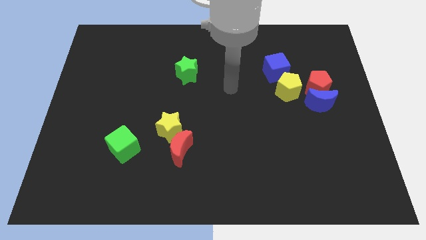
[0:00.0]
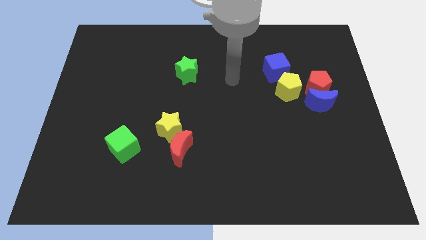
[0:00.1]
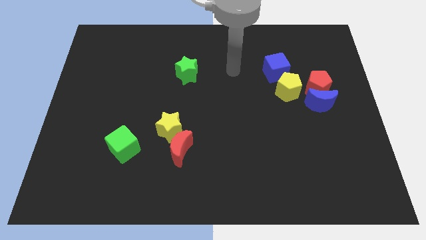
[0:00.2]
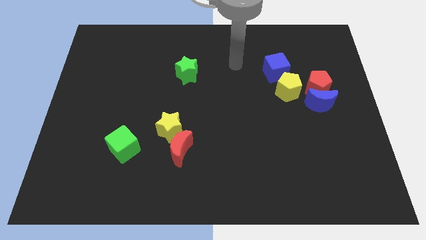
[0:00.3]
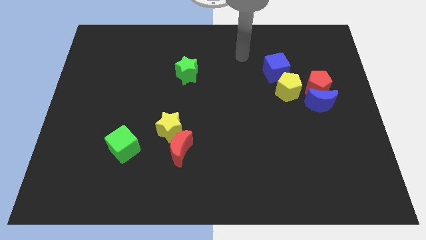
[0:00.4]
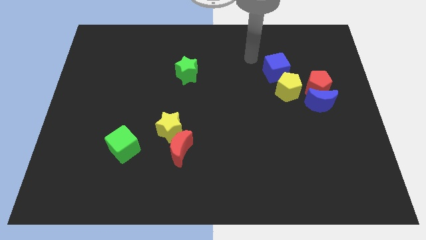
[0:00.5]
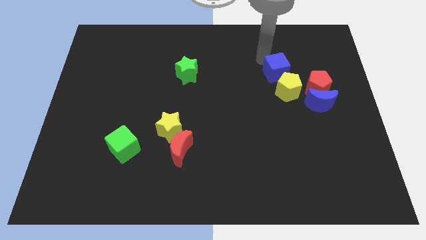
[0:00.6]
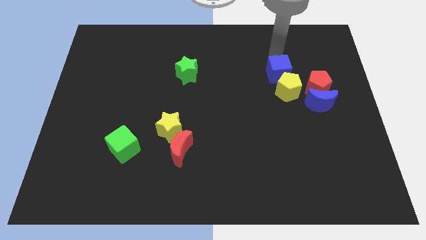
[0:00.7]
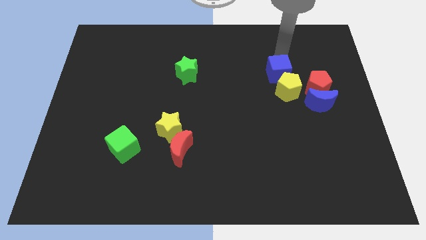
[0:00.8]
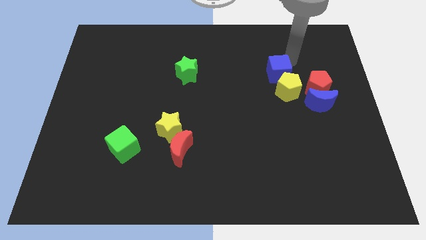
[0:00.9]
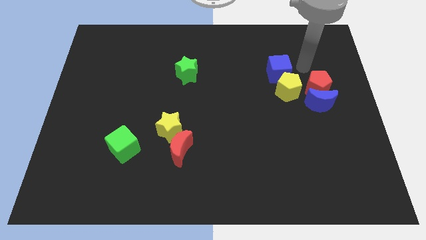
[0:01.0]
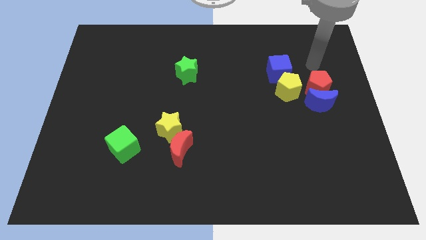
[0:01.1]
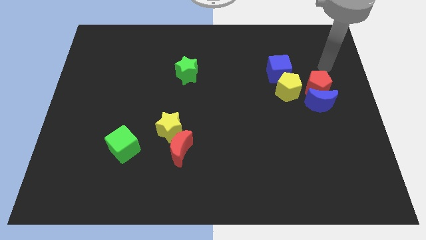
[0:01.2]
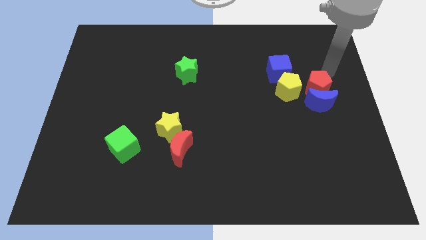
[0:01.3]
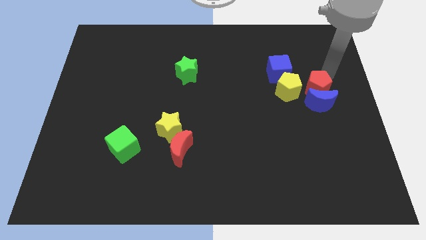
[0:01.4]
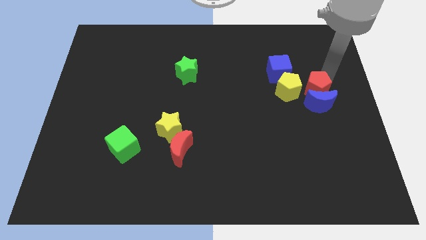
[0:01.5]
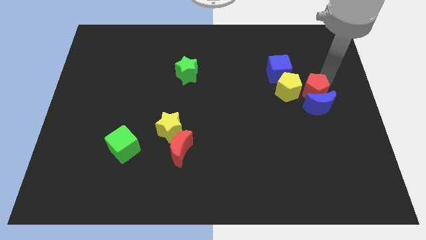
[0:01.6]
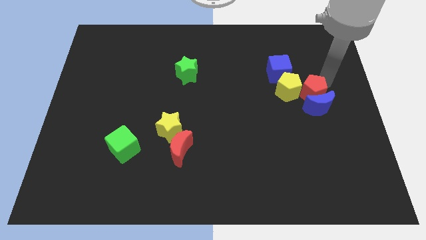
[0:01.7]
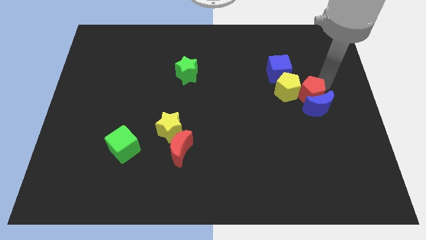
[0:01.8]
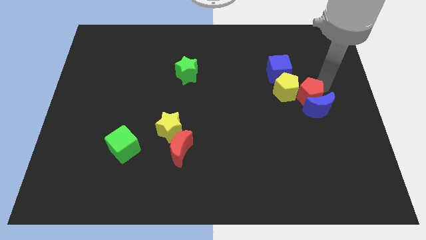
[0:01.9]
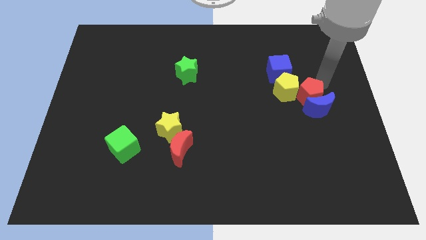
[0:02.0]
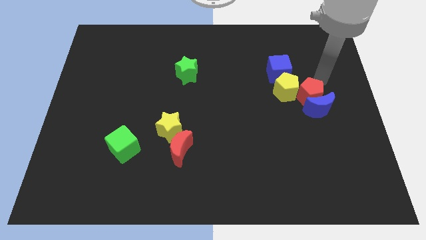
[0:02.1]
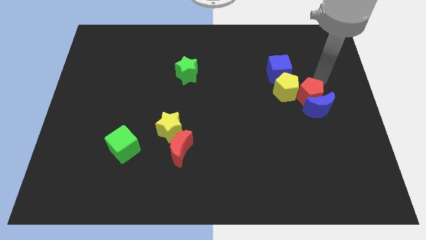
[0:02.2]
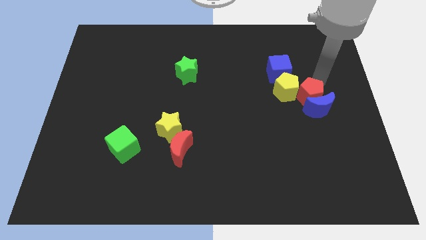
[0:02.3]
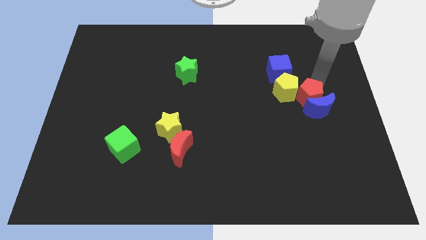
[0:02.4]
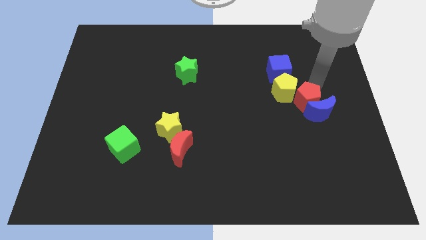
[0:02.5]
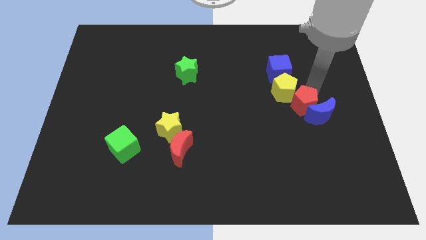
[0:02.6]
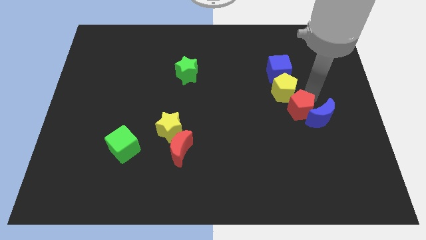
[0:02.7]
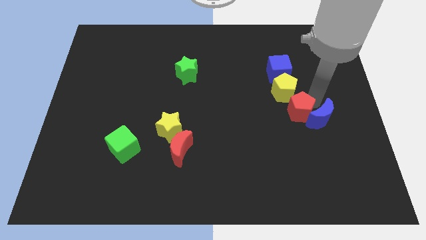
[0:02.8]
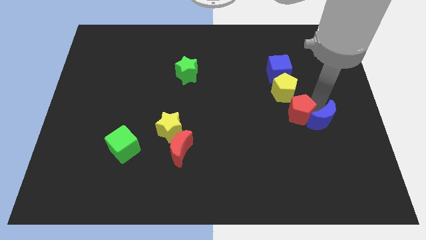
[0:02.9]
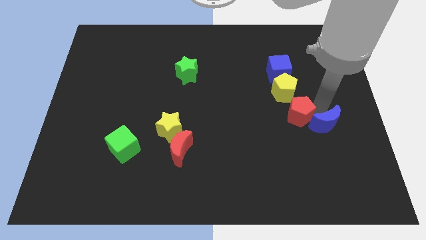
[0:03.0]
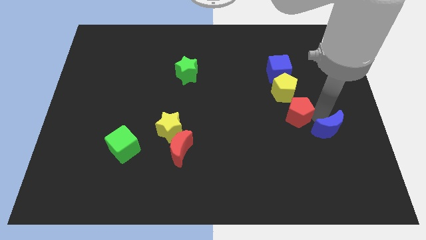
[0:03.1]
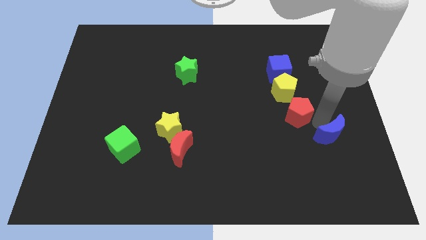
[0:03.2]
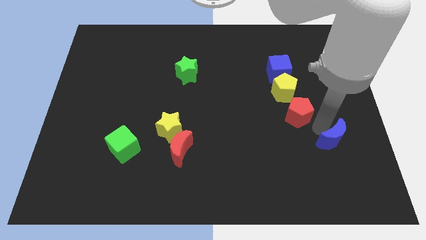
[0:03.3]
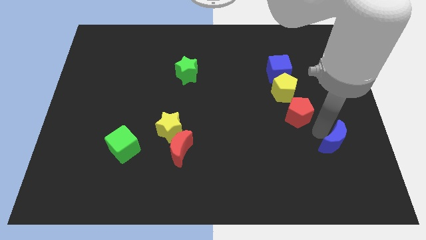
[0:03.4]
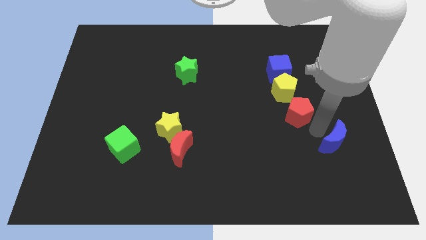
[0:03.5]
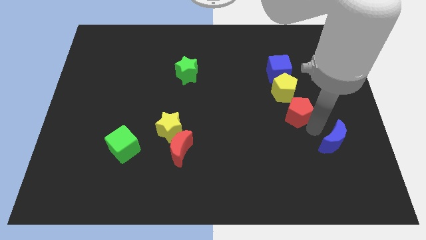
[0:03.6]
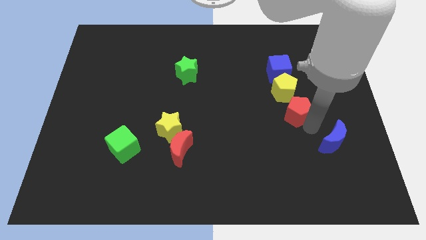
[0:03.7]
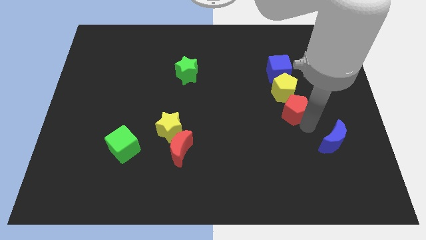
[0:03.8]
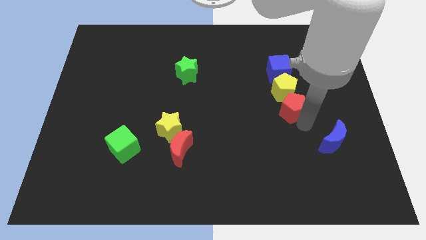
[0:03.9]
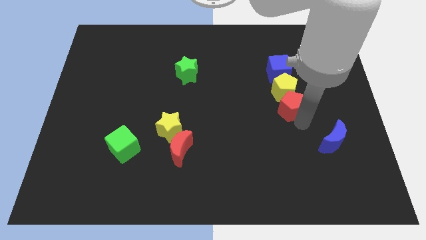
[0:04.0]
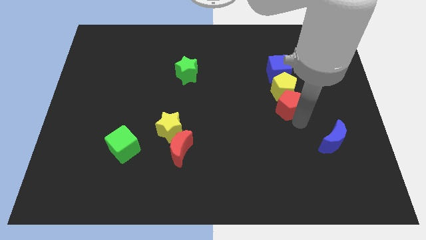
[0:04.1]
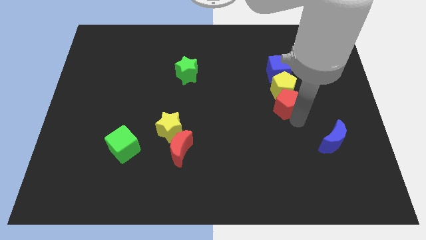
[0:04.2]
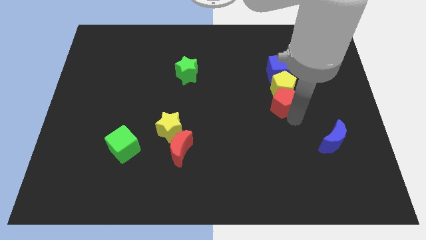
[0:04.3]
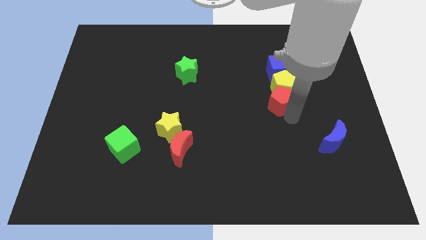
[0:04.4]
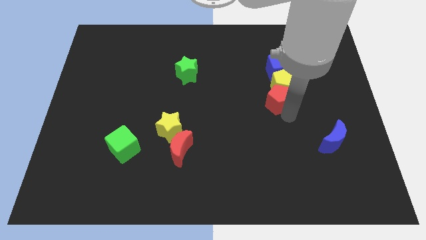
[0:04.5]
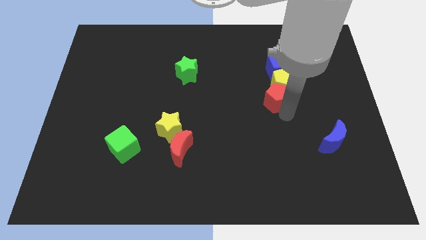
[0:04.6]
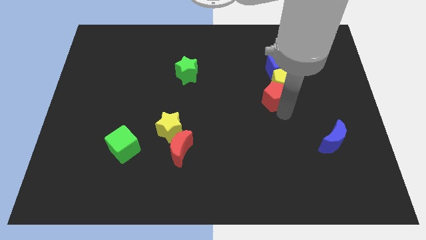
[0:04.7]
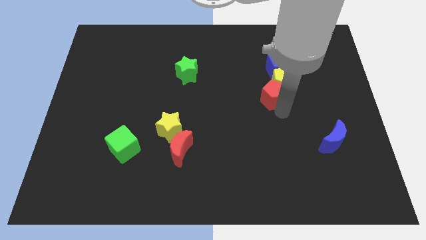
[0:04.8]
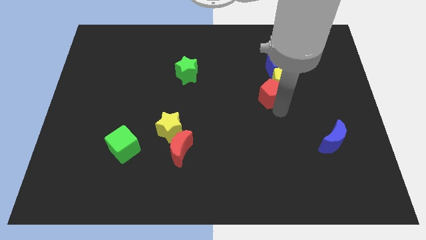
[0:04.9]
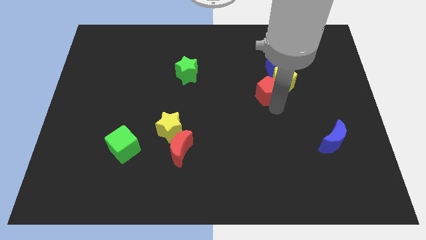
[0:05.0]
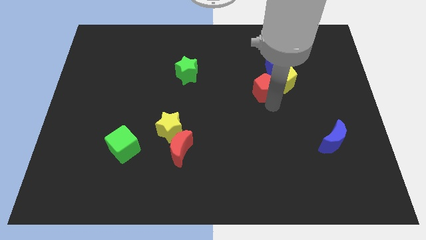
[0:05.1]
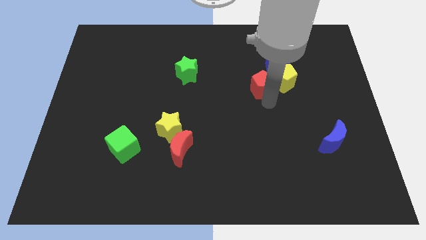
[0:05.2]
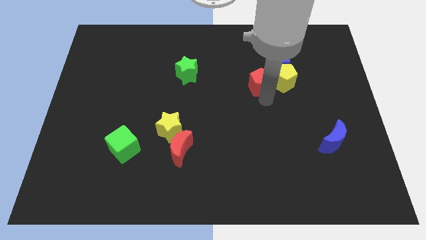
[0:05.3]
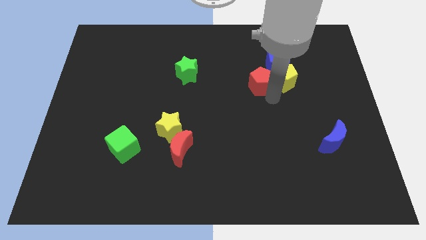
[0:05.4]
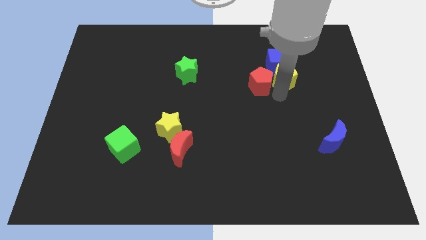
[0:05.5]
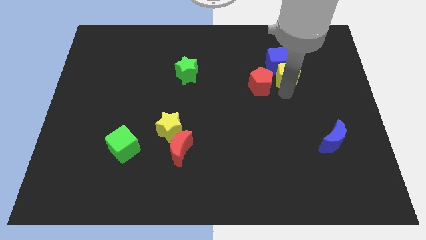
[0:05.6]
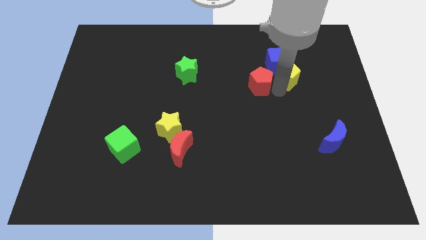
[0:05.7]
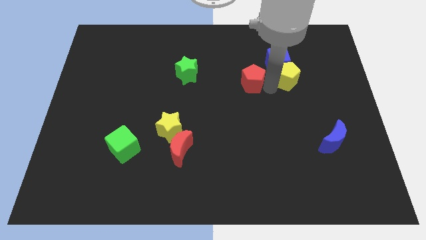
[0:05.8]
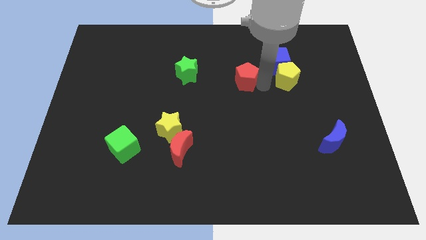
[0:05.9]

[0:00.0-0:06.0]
put the red pentagon just right of the green star
